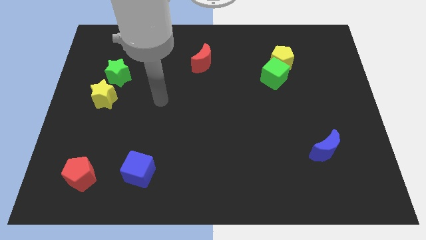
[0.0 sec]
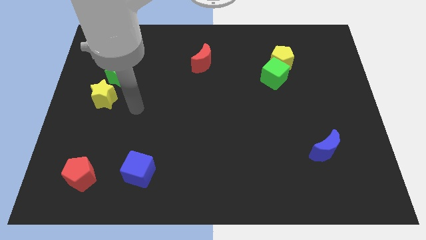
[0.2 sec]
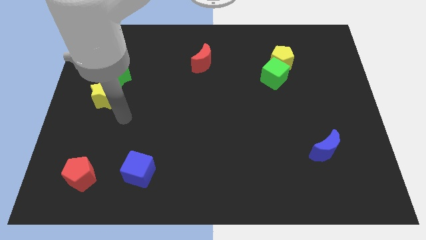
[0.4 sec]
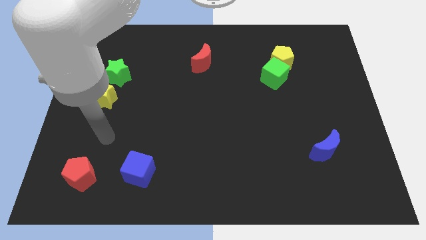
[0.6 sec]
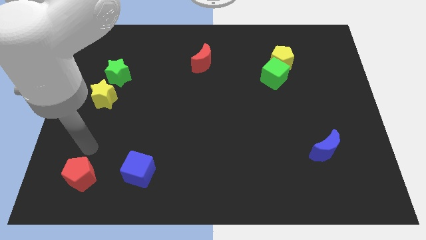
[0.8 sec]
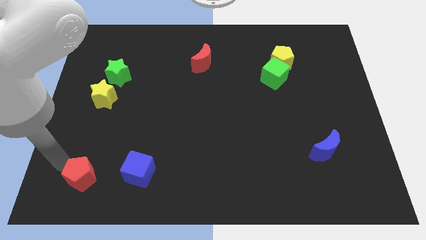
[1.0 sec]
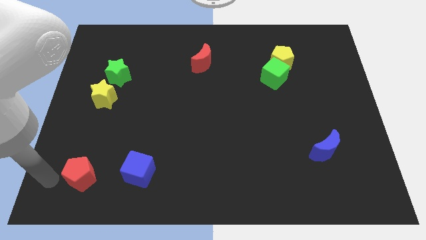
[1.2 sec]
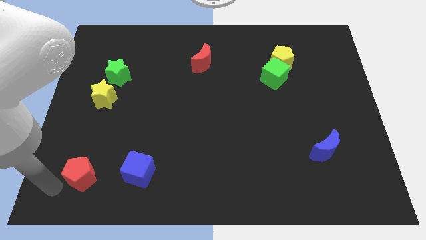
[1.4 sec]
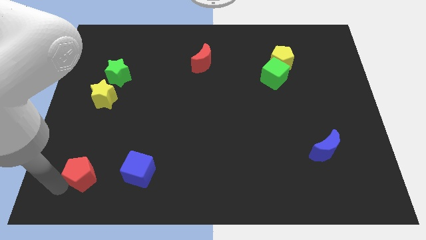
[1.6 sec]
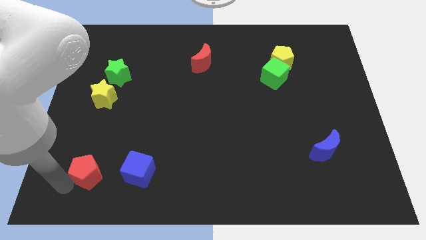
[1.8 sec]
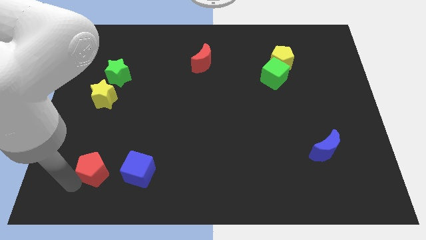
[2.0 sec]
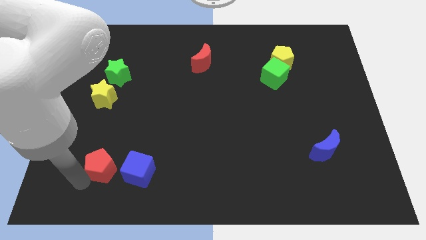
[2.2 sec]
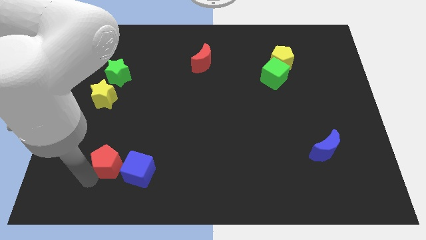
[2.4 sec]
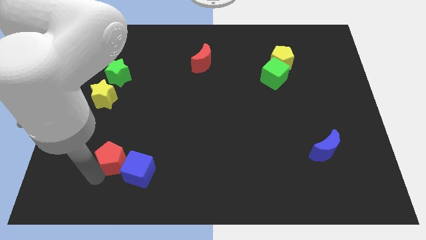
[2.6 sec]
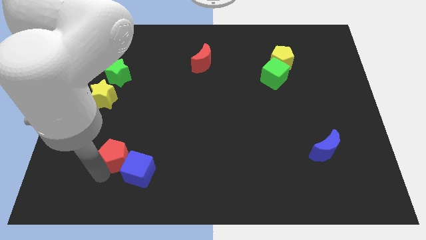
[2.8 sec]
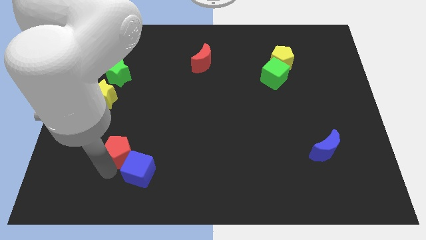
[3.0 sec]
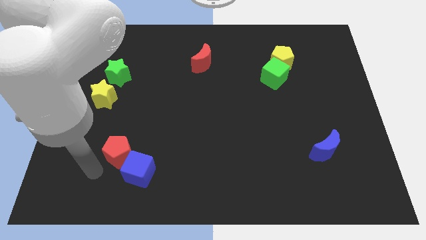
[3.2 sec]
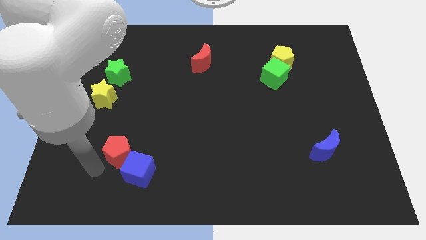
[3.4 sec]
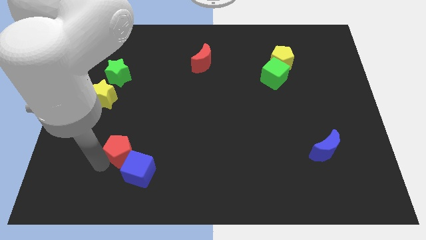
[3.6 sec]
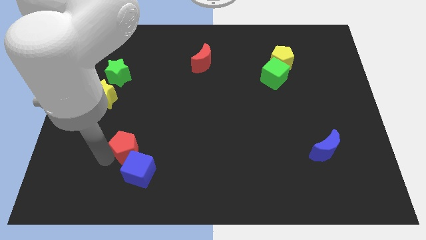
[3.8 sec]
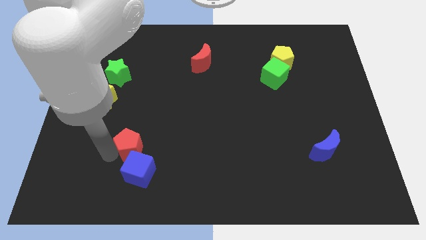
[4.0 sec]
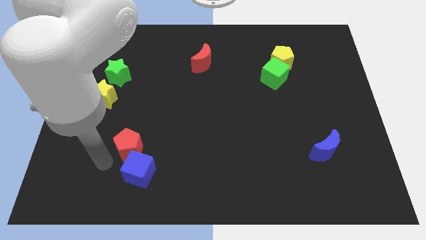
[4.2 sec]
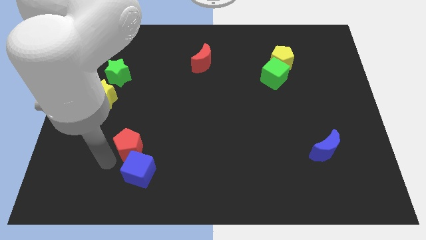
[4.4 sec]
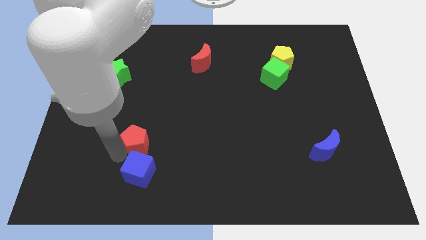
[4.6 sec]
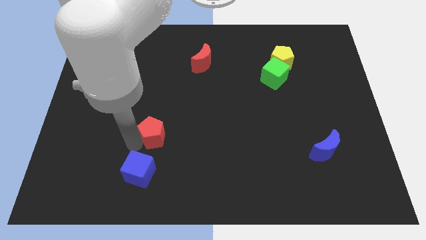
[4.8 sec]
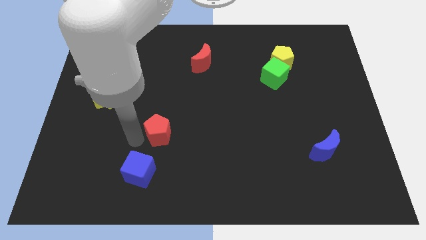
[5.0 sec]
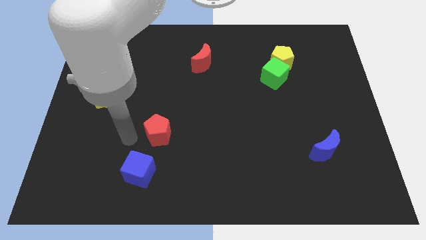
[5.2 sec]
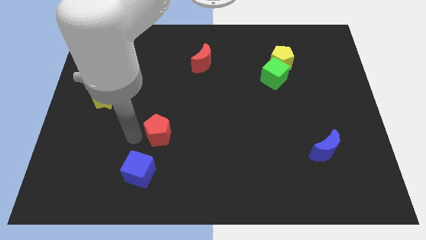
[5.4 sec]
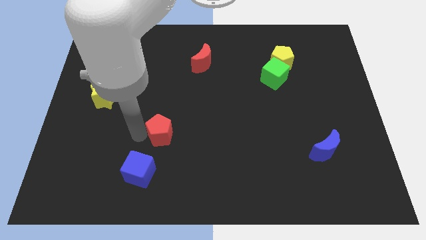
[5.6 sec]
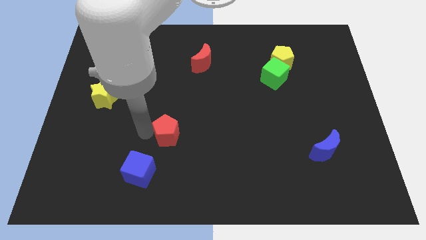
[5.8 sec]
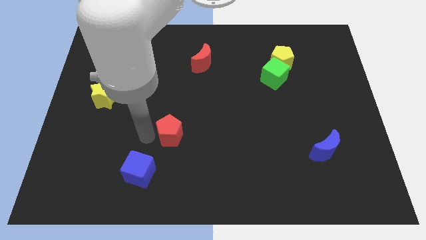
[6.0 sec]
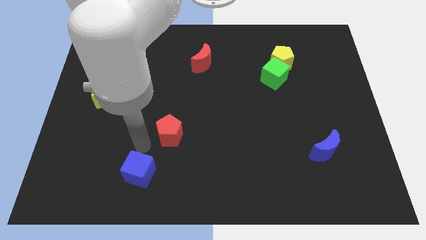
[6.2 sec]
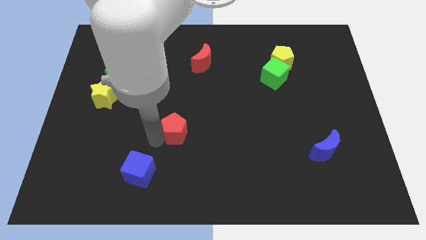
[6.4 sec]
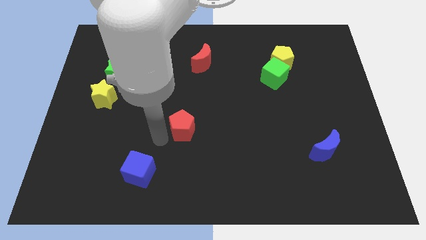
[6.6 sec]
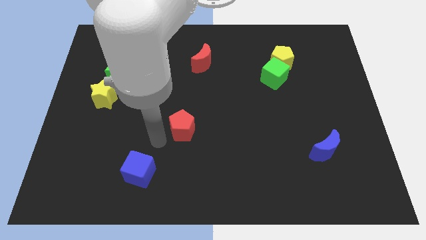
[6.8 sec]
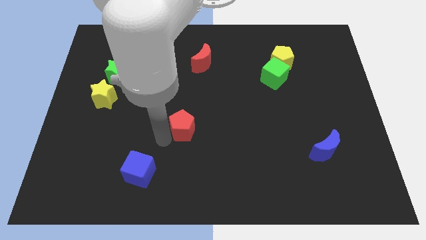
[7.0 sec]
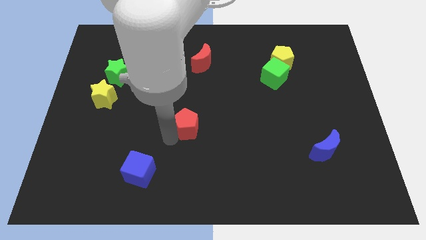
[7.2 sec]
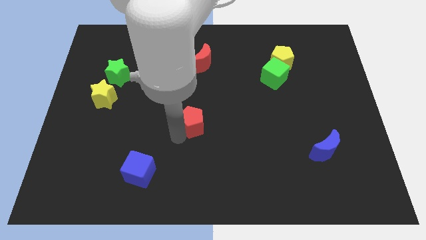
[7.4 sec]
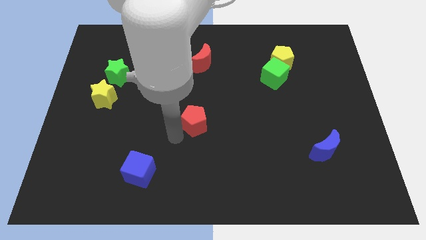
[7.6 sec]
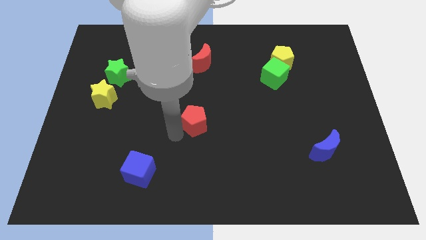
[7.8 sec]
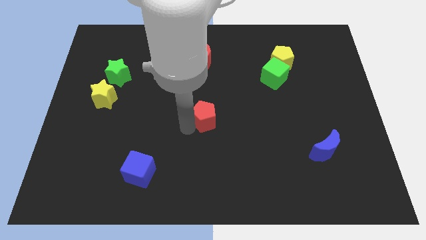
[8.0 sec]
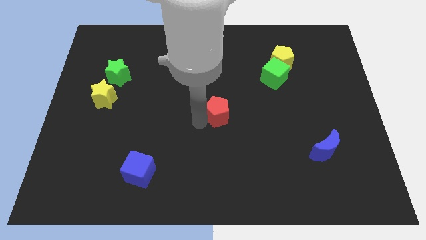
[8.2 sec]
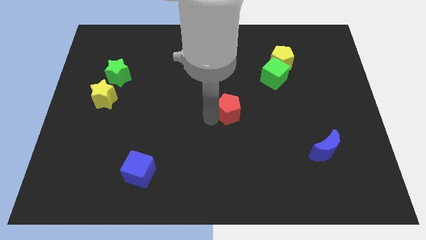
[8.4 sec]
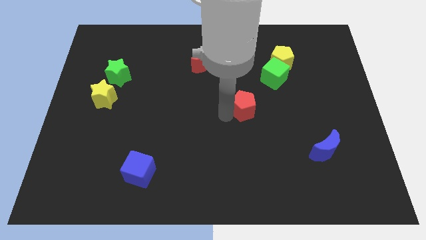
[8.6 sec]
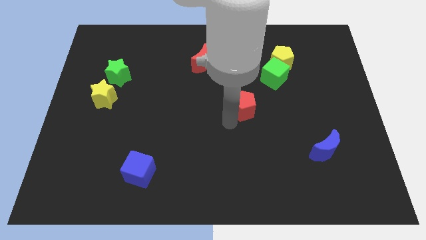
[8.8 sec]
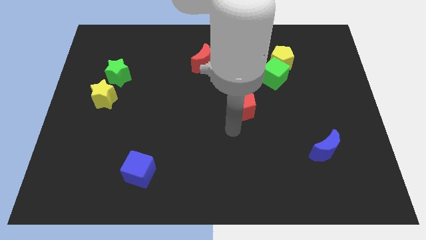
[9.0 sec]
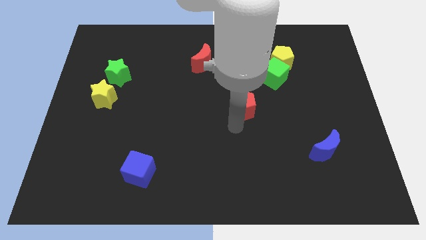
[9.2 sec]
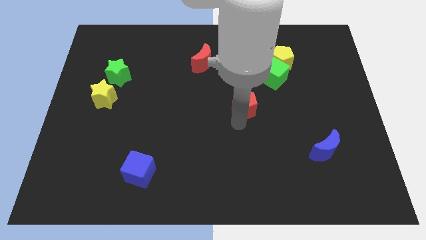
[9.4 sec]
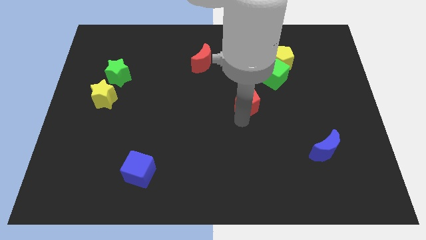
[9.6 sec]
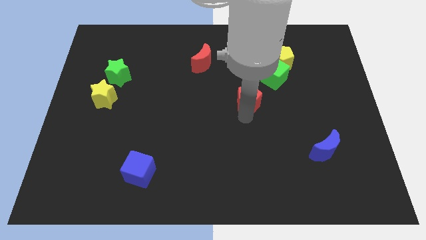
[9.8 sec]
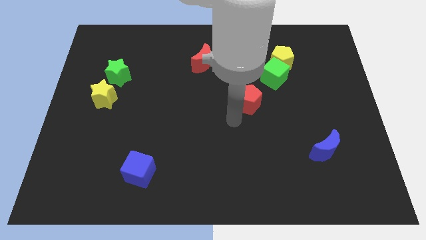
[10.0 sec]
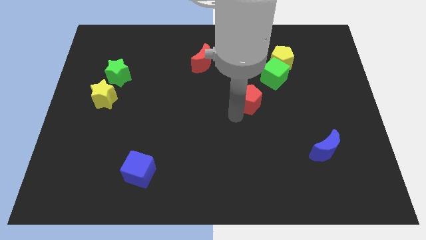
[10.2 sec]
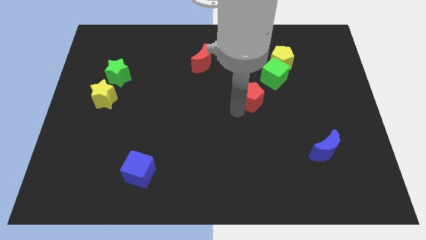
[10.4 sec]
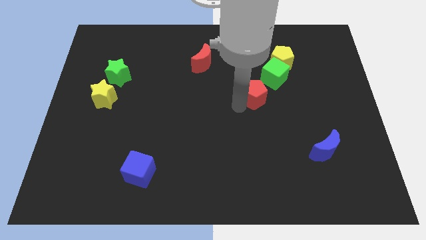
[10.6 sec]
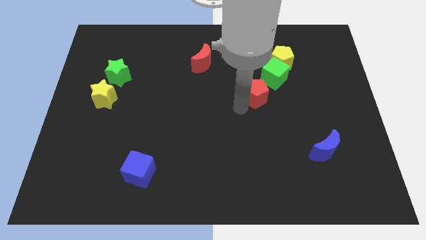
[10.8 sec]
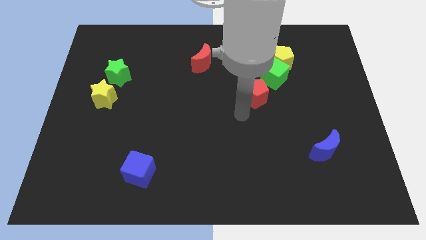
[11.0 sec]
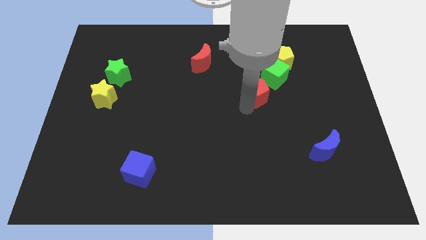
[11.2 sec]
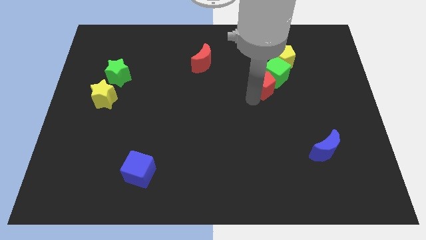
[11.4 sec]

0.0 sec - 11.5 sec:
move the red pentagon to the green cube

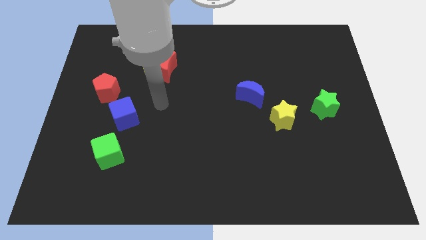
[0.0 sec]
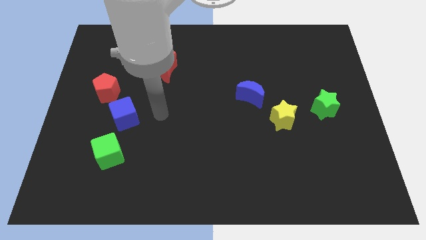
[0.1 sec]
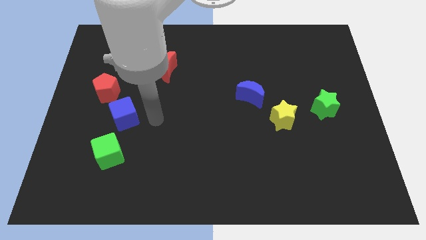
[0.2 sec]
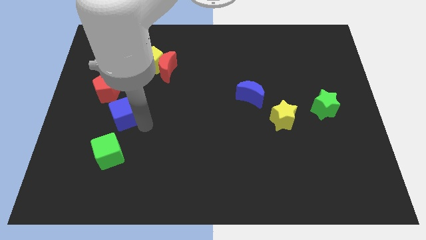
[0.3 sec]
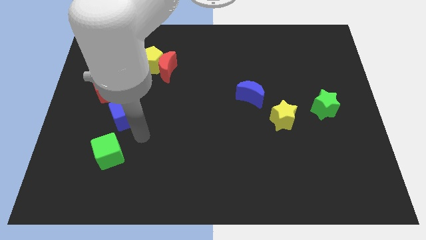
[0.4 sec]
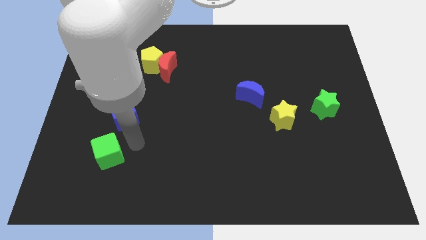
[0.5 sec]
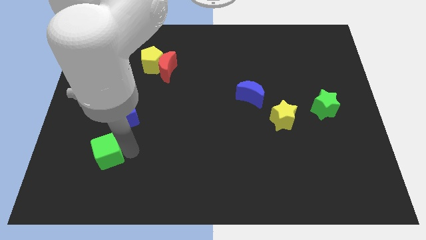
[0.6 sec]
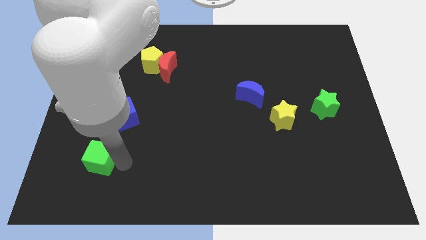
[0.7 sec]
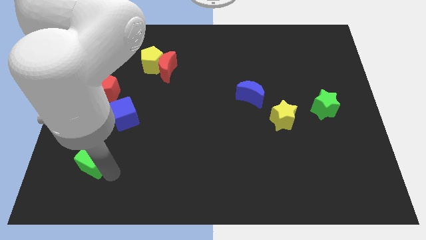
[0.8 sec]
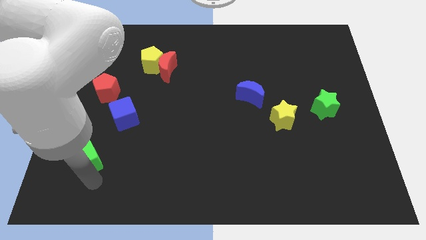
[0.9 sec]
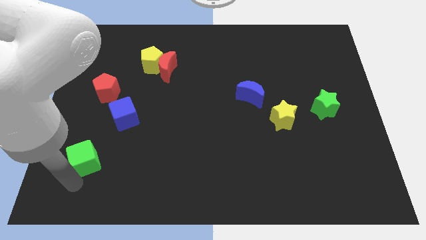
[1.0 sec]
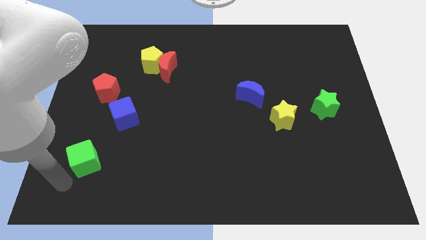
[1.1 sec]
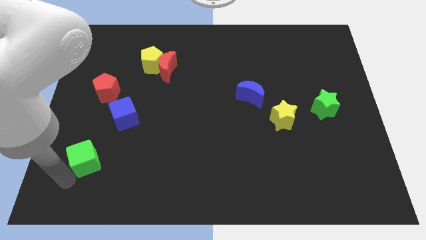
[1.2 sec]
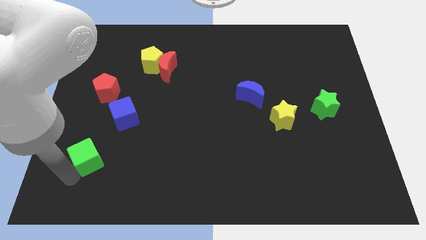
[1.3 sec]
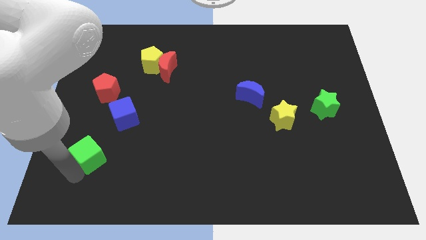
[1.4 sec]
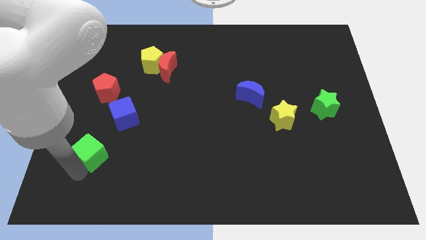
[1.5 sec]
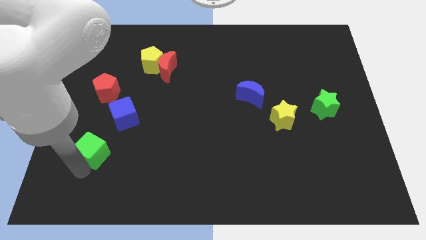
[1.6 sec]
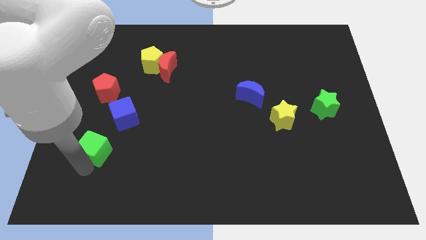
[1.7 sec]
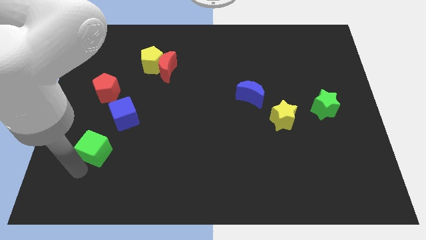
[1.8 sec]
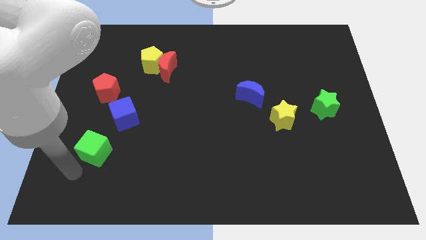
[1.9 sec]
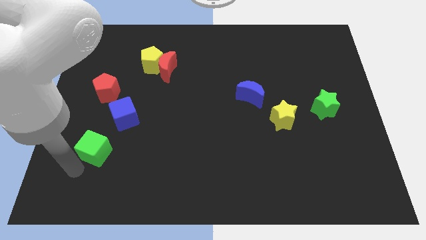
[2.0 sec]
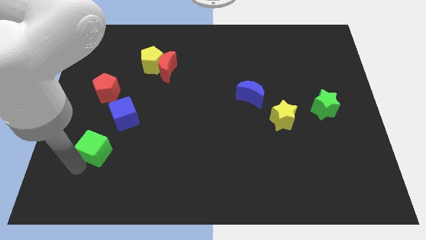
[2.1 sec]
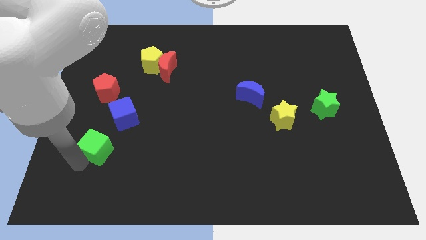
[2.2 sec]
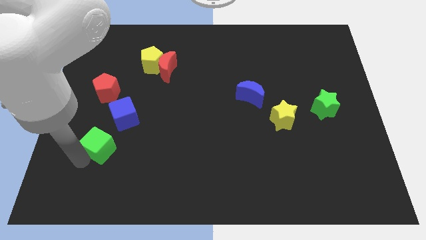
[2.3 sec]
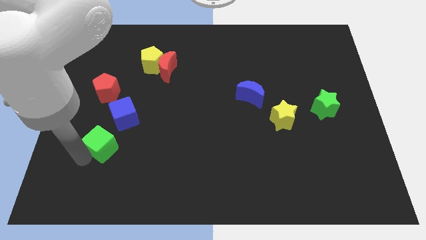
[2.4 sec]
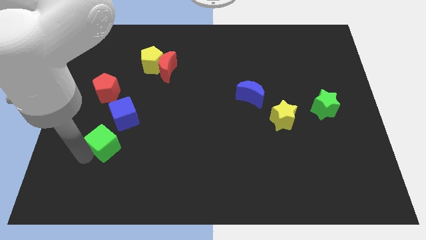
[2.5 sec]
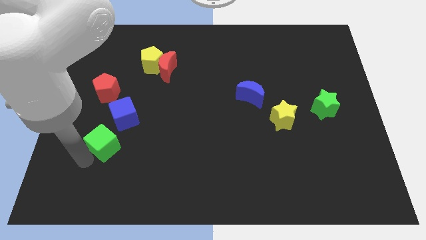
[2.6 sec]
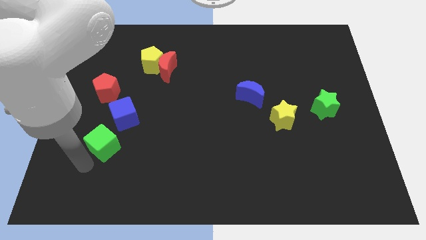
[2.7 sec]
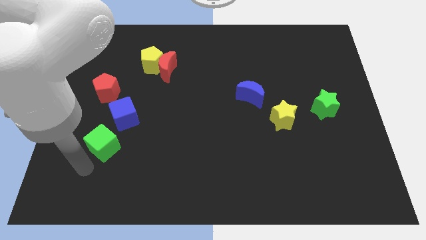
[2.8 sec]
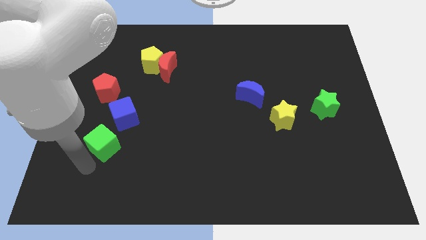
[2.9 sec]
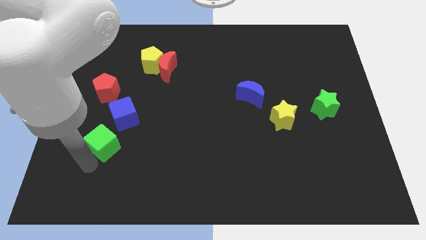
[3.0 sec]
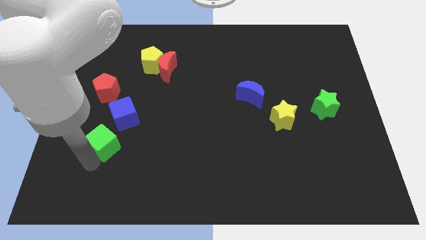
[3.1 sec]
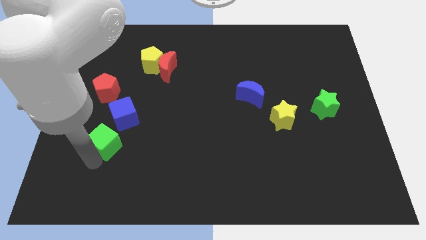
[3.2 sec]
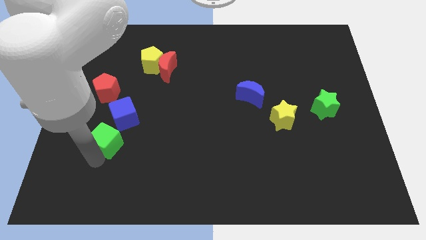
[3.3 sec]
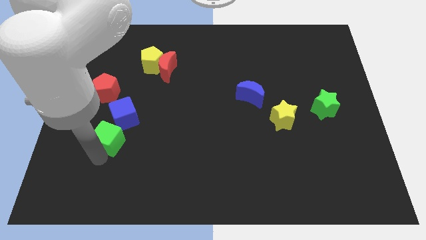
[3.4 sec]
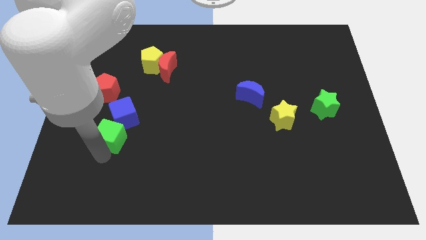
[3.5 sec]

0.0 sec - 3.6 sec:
push the green cube towards the blue cube
